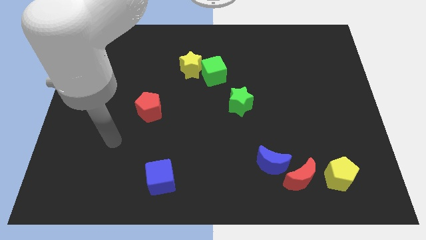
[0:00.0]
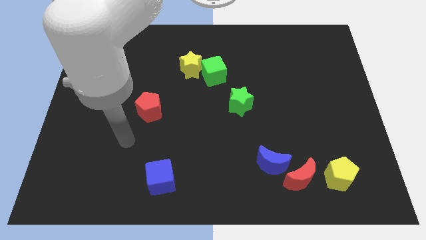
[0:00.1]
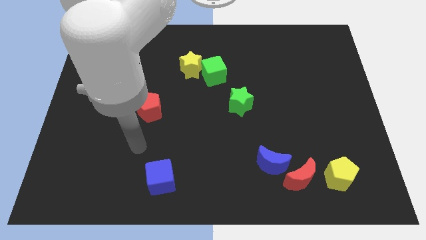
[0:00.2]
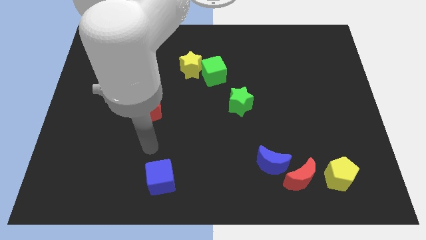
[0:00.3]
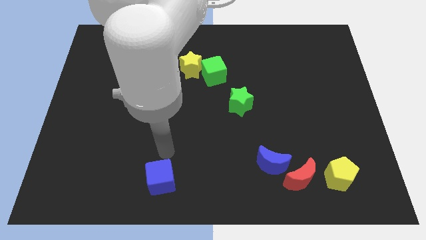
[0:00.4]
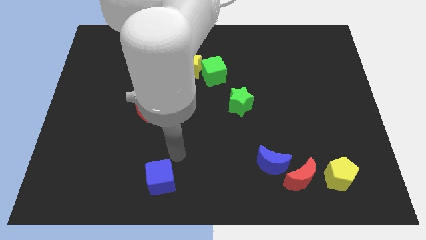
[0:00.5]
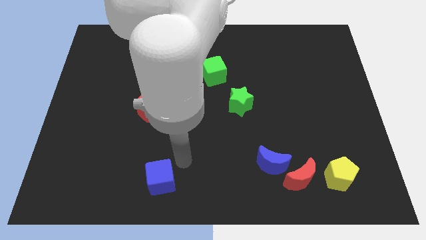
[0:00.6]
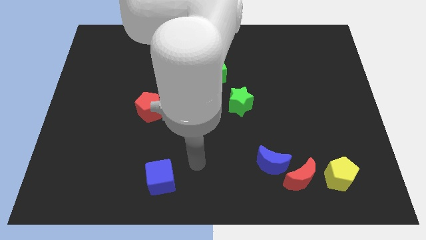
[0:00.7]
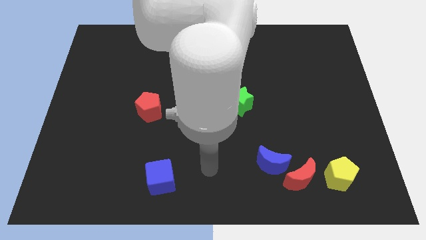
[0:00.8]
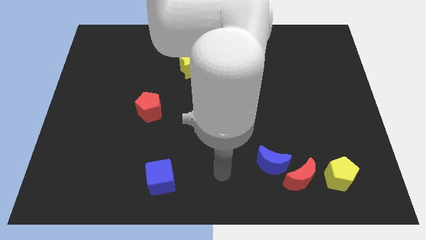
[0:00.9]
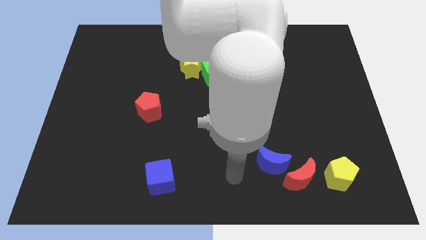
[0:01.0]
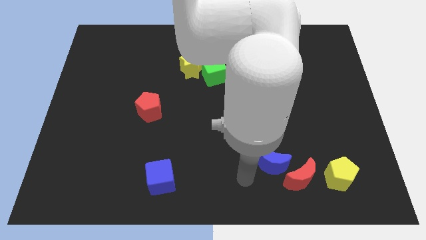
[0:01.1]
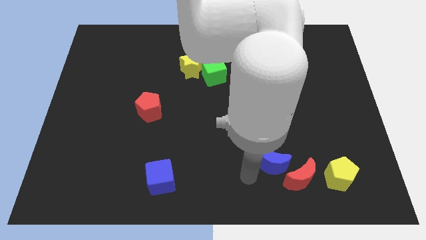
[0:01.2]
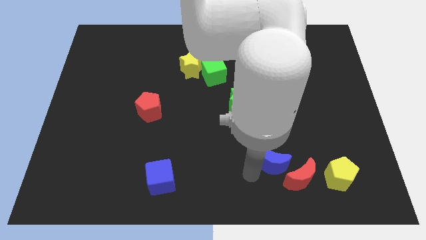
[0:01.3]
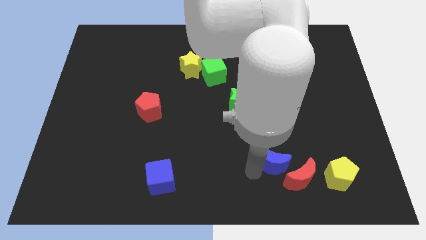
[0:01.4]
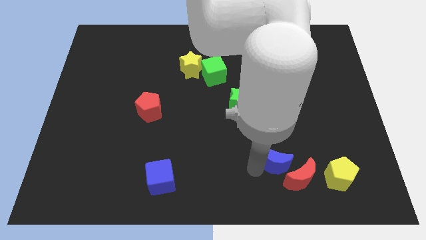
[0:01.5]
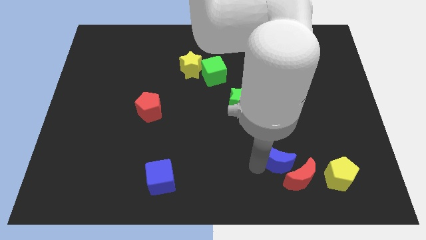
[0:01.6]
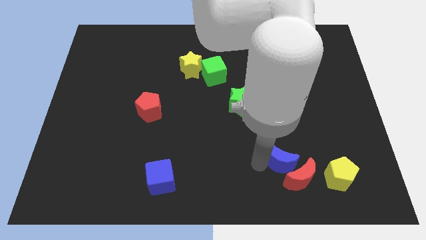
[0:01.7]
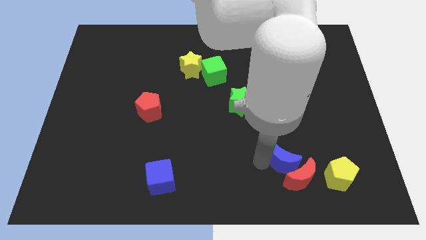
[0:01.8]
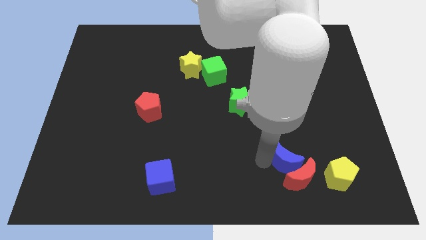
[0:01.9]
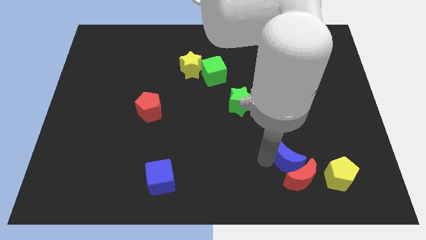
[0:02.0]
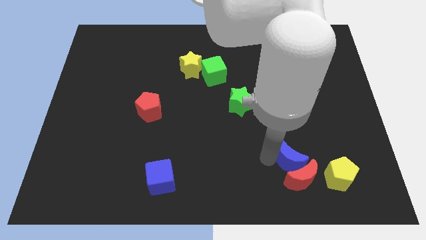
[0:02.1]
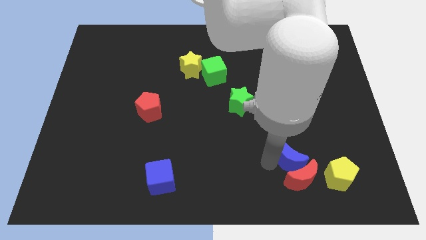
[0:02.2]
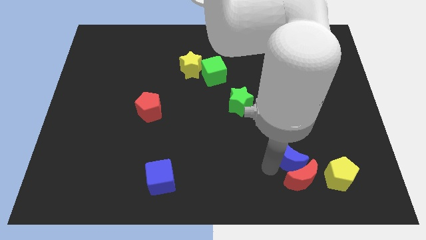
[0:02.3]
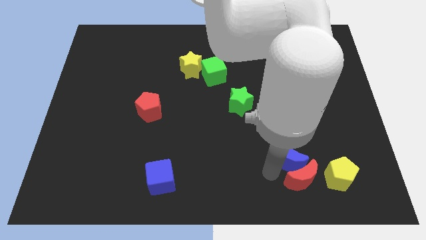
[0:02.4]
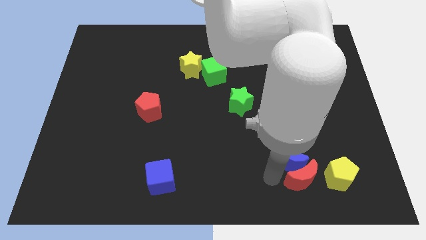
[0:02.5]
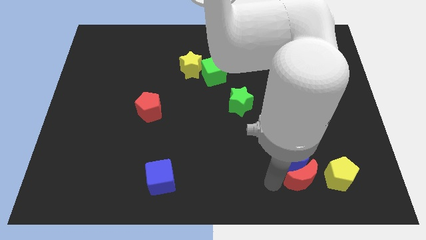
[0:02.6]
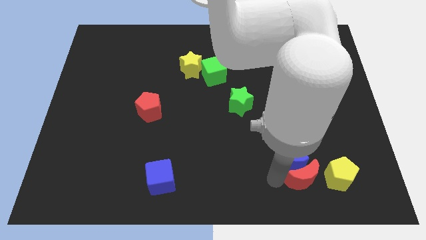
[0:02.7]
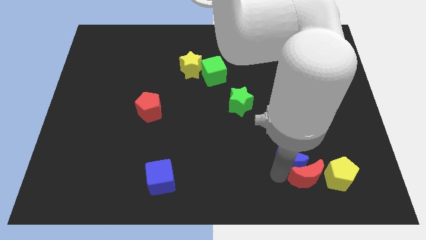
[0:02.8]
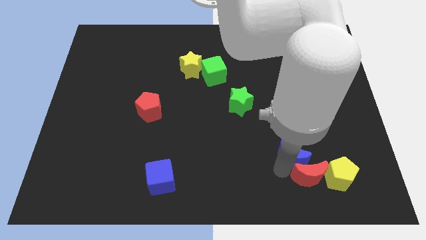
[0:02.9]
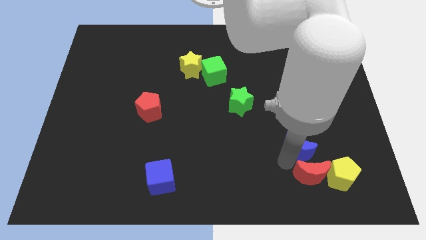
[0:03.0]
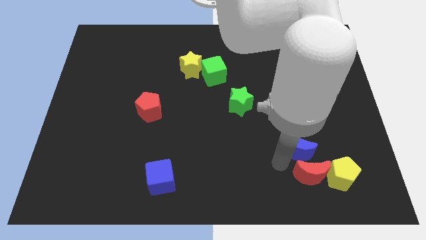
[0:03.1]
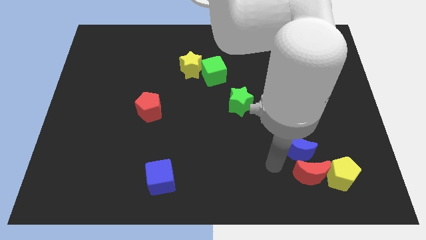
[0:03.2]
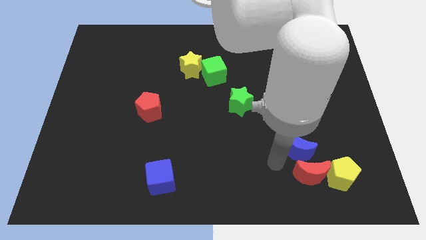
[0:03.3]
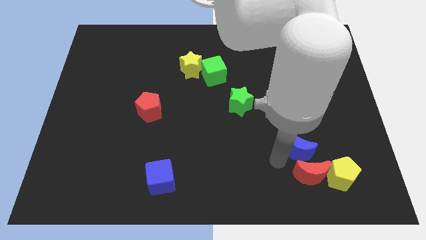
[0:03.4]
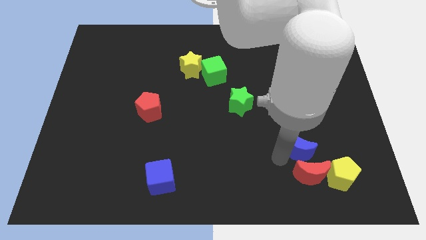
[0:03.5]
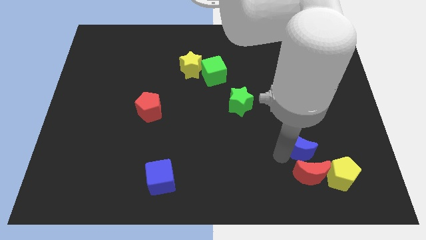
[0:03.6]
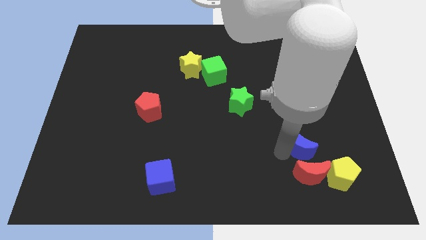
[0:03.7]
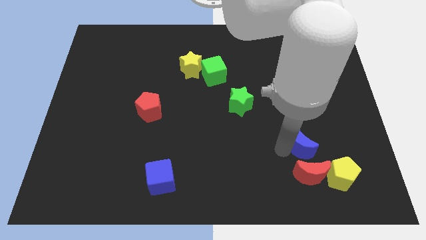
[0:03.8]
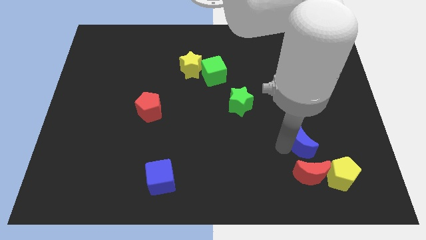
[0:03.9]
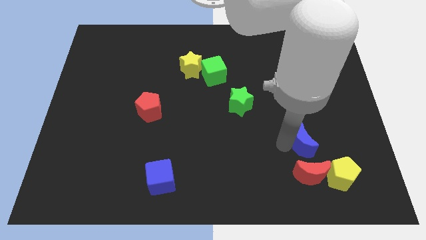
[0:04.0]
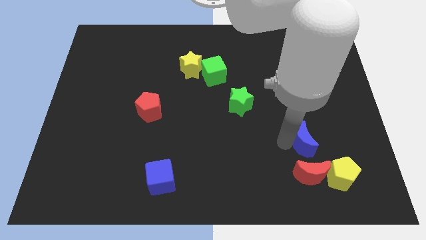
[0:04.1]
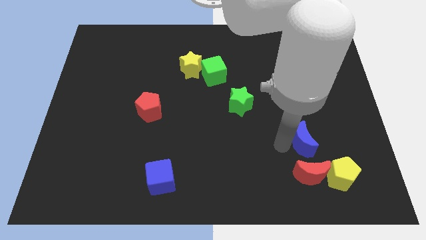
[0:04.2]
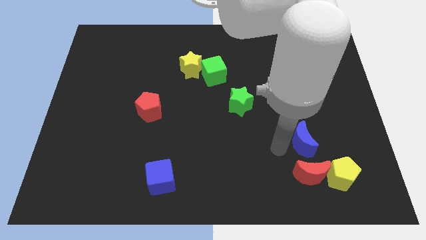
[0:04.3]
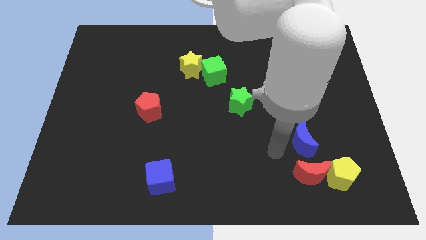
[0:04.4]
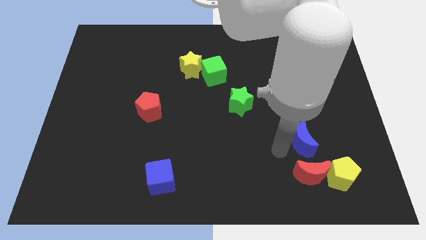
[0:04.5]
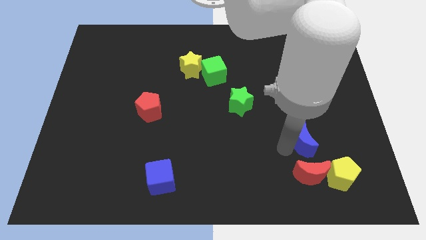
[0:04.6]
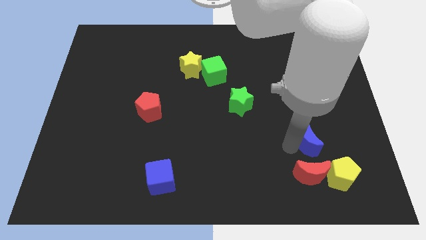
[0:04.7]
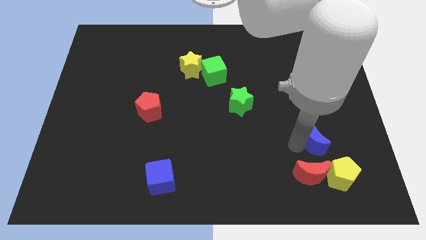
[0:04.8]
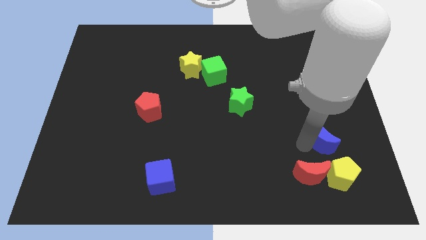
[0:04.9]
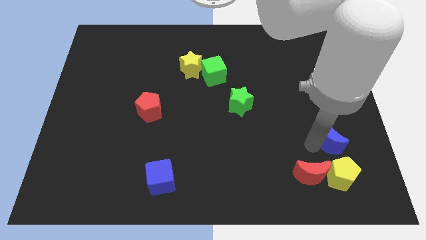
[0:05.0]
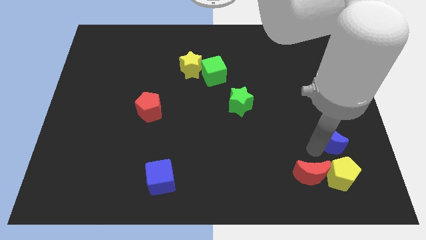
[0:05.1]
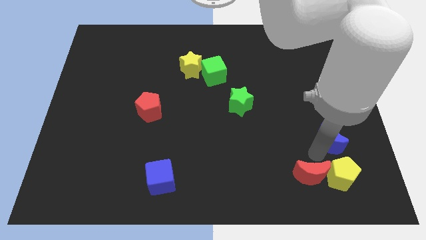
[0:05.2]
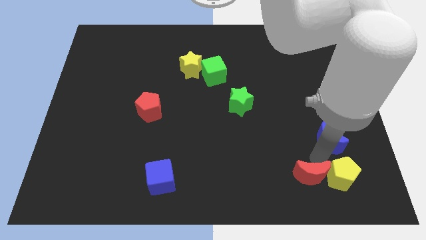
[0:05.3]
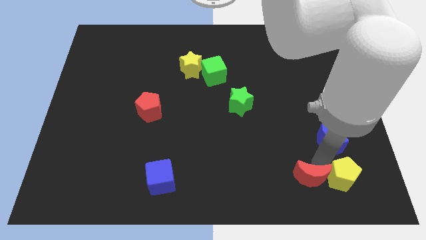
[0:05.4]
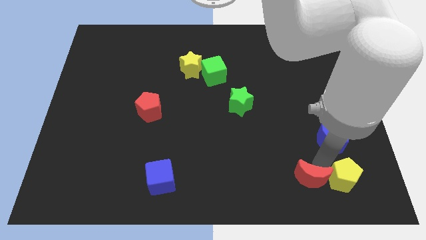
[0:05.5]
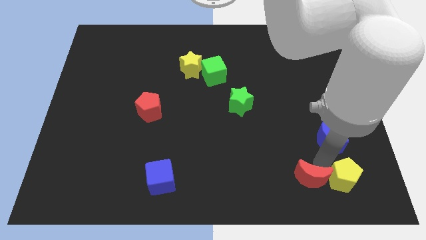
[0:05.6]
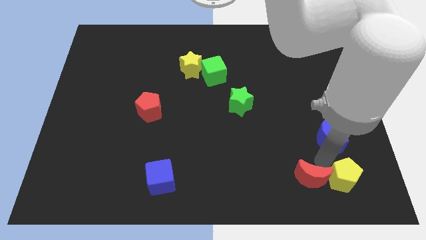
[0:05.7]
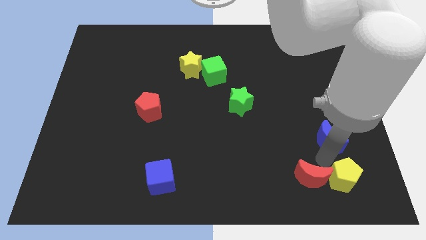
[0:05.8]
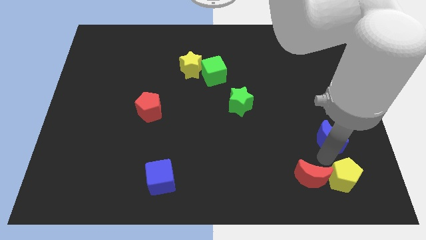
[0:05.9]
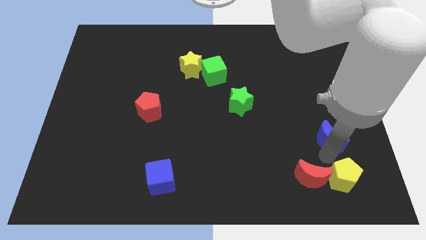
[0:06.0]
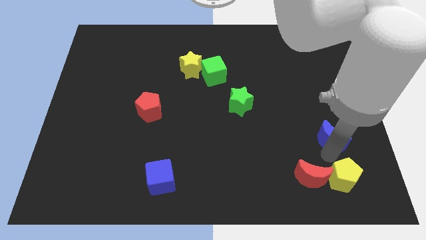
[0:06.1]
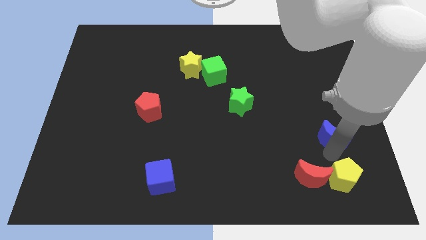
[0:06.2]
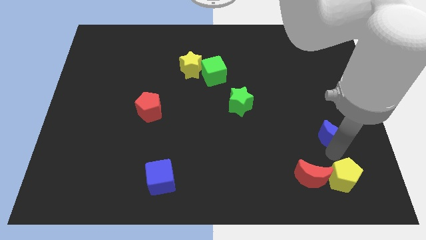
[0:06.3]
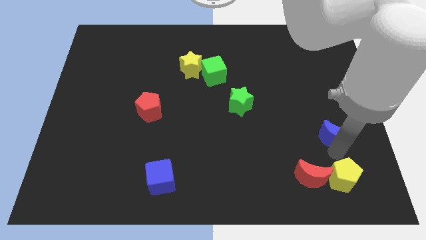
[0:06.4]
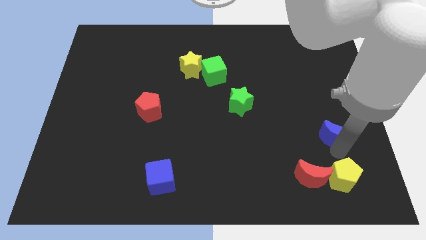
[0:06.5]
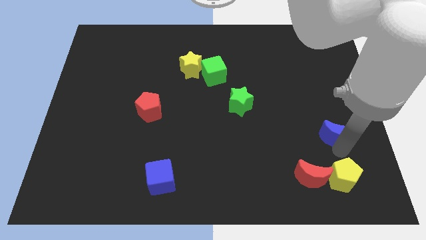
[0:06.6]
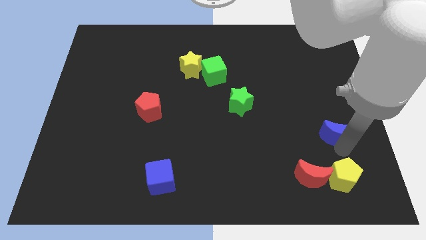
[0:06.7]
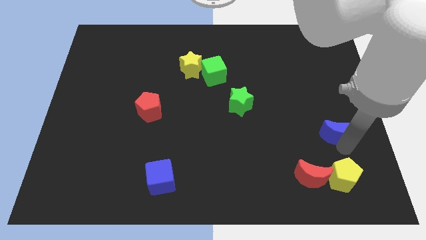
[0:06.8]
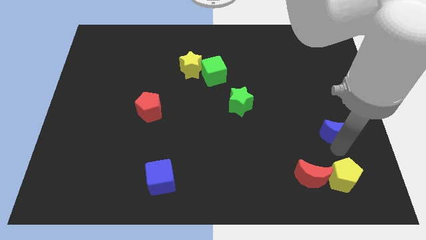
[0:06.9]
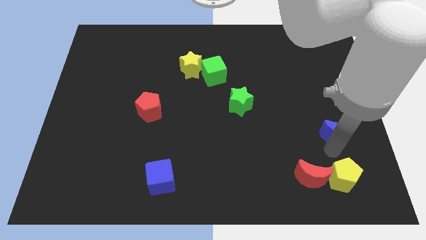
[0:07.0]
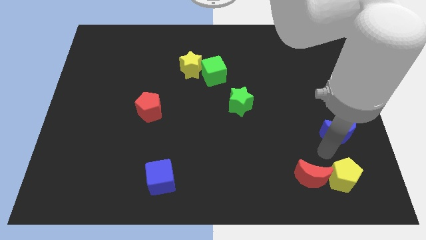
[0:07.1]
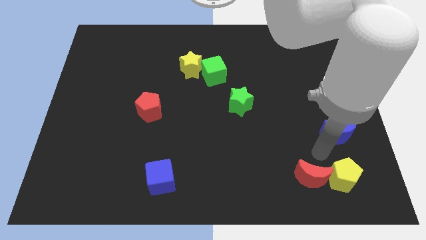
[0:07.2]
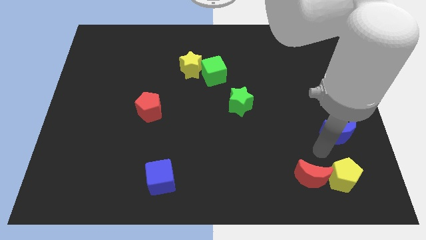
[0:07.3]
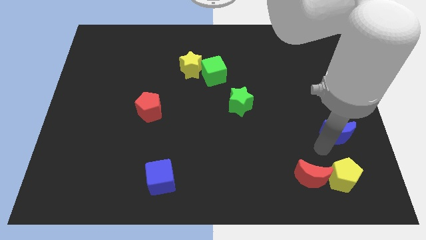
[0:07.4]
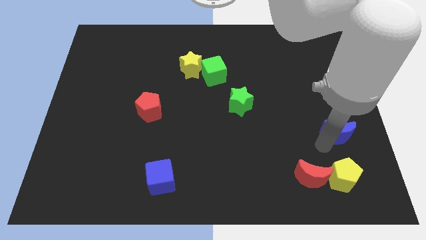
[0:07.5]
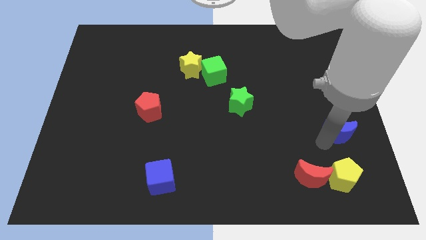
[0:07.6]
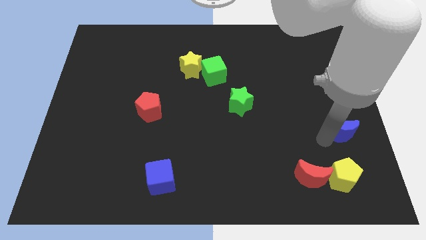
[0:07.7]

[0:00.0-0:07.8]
move the blue moon to the right side of the board
